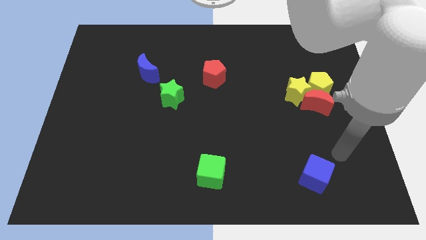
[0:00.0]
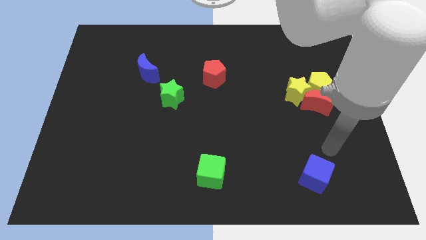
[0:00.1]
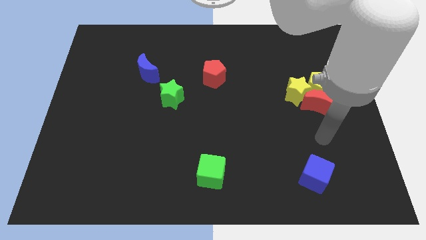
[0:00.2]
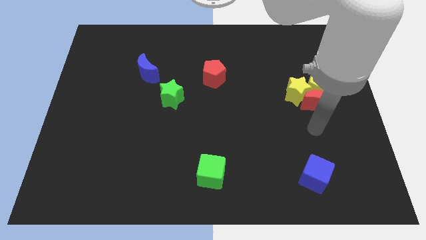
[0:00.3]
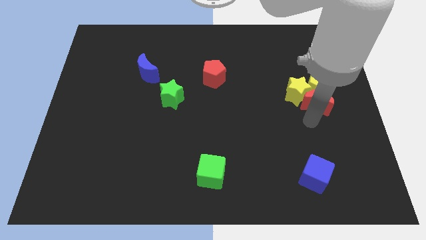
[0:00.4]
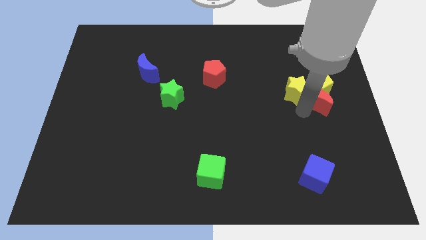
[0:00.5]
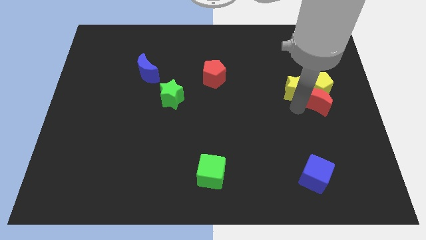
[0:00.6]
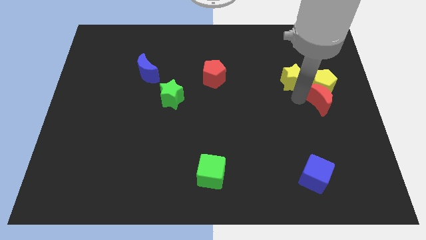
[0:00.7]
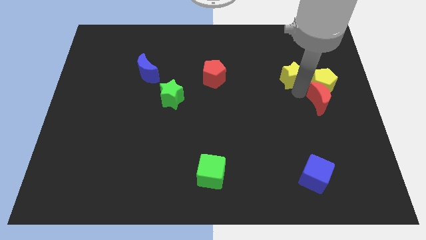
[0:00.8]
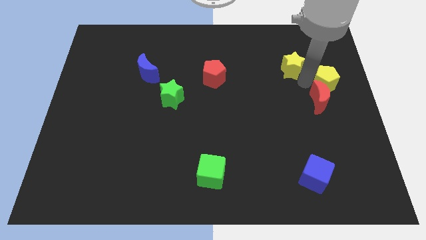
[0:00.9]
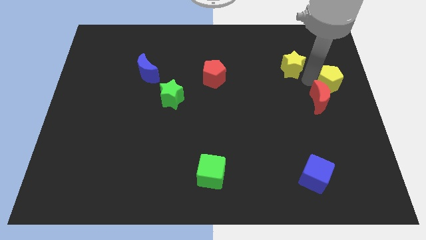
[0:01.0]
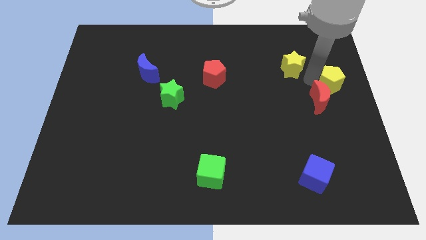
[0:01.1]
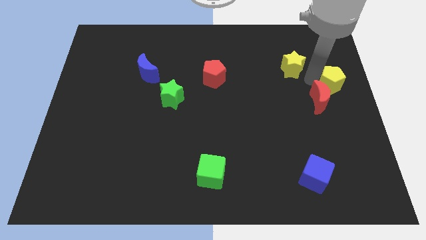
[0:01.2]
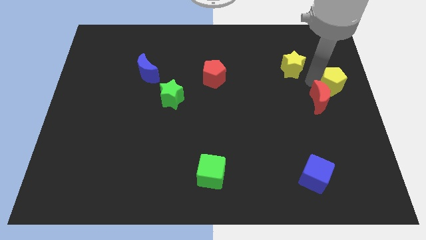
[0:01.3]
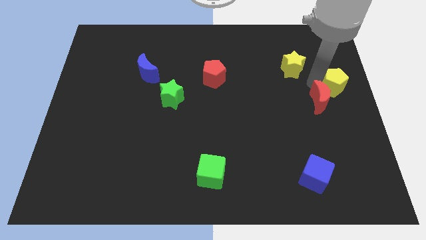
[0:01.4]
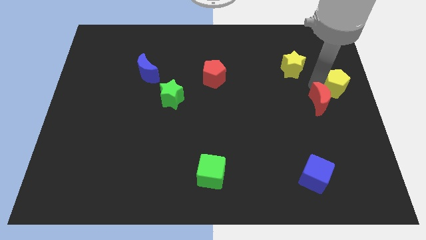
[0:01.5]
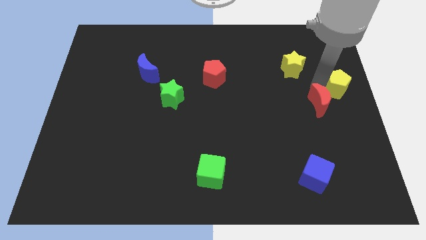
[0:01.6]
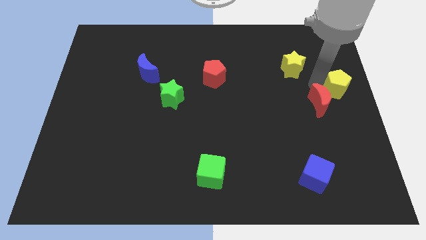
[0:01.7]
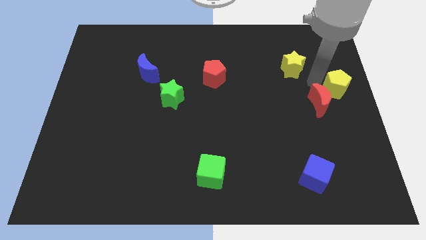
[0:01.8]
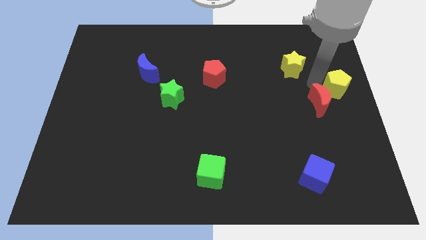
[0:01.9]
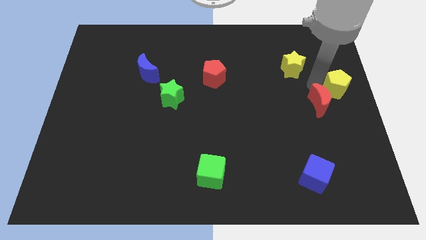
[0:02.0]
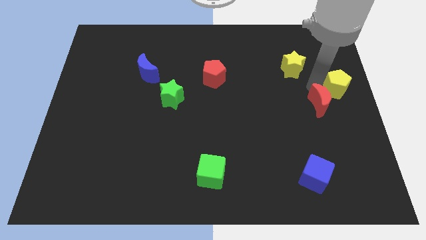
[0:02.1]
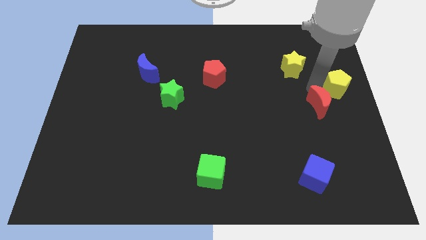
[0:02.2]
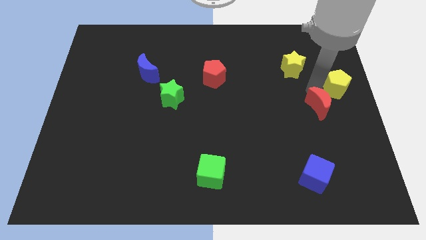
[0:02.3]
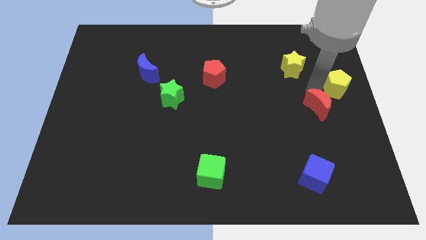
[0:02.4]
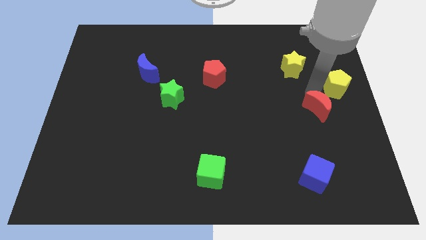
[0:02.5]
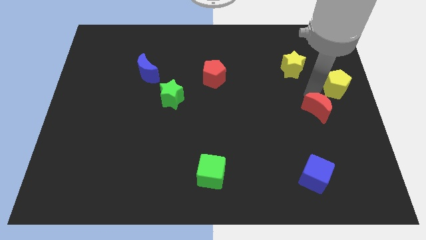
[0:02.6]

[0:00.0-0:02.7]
separate the red moon from the yellow pentagon and yellow star

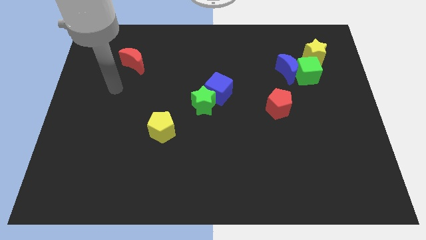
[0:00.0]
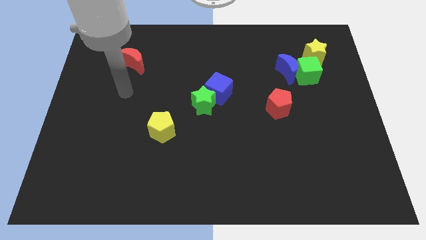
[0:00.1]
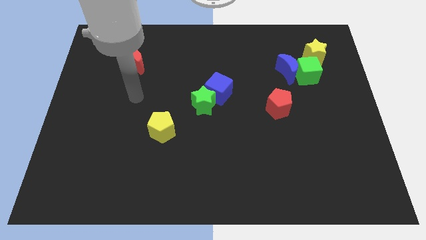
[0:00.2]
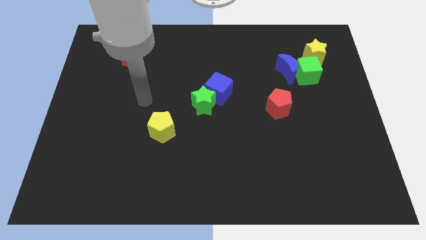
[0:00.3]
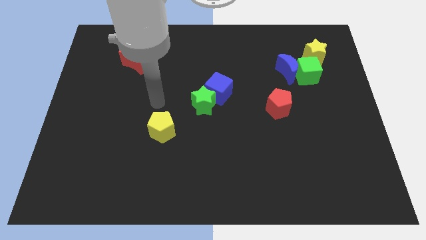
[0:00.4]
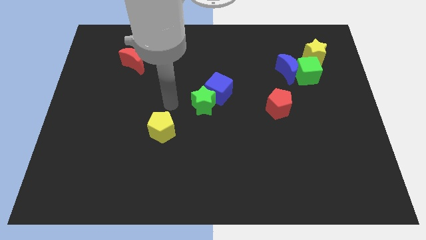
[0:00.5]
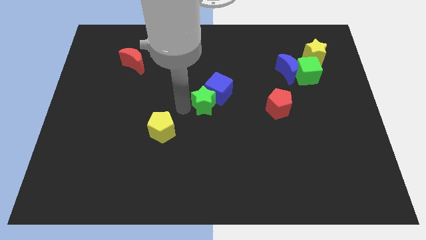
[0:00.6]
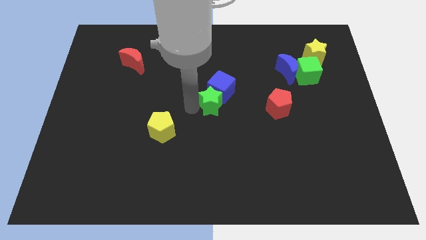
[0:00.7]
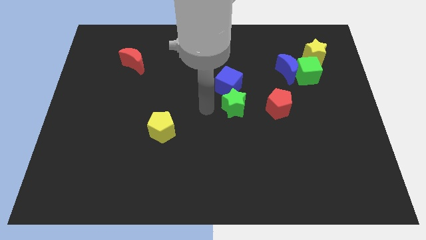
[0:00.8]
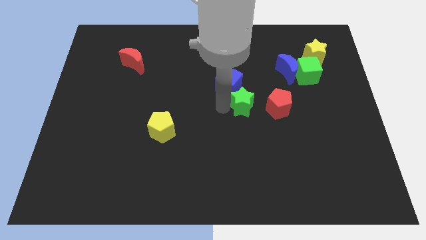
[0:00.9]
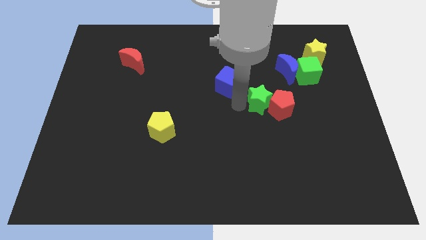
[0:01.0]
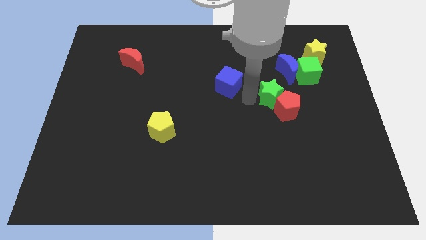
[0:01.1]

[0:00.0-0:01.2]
pull the blue cube apart from the green star

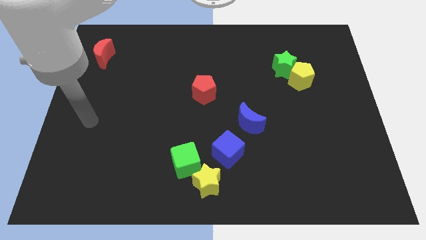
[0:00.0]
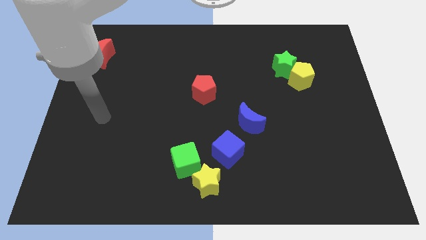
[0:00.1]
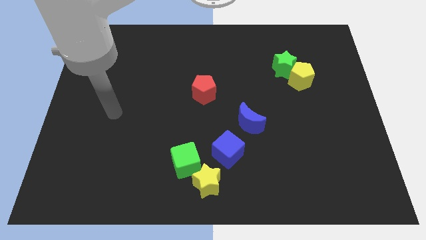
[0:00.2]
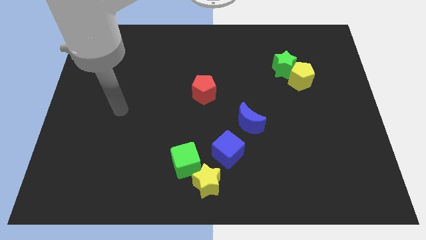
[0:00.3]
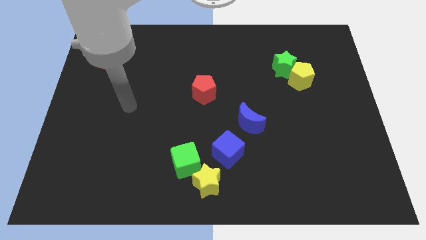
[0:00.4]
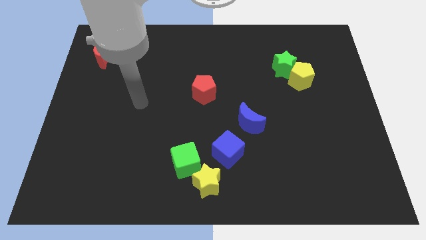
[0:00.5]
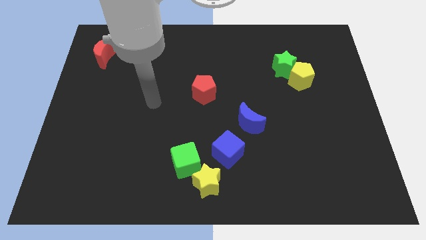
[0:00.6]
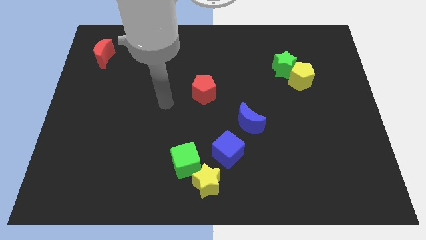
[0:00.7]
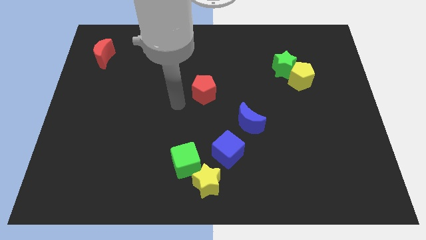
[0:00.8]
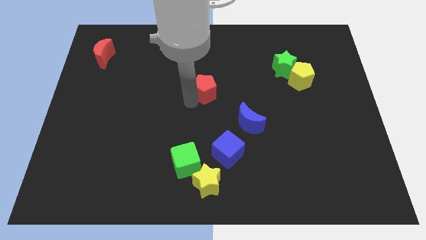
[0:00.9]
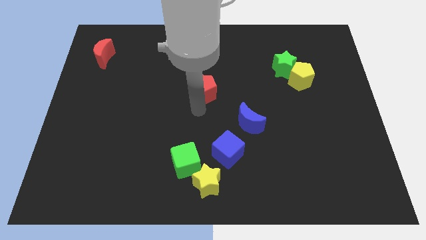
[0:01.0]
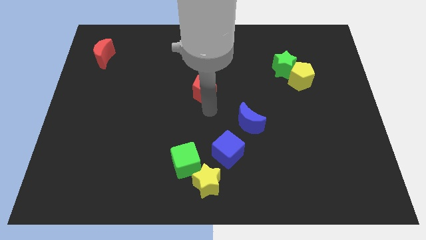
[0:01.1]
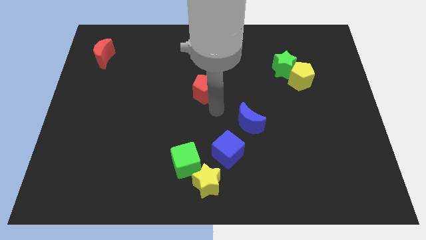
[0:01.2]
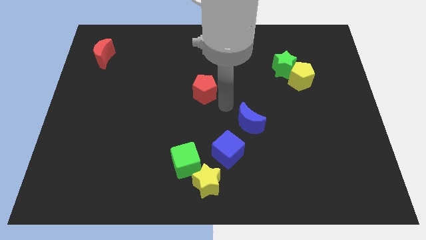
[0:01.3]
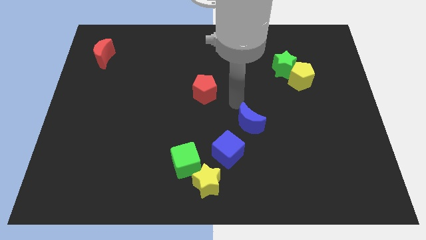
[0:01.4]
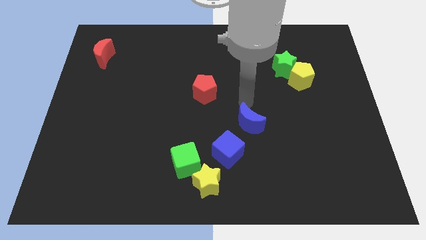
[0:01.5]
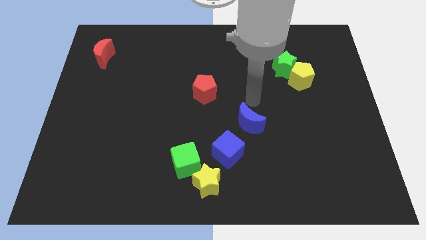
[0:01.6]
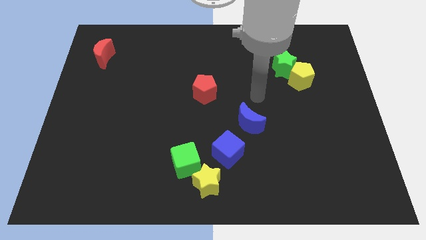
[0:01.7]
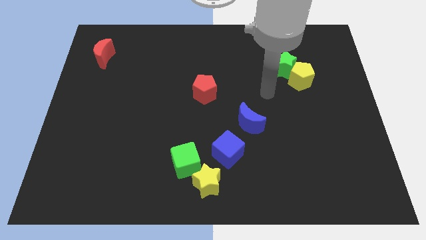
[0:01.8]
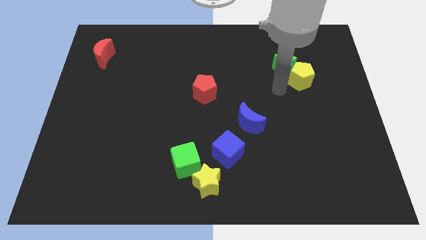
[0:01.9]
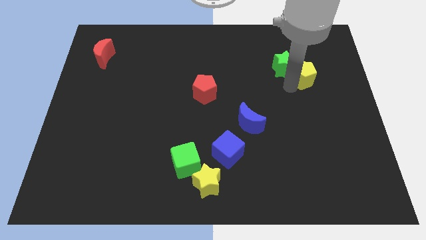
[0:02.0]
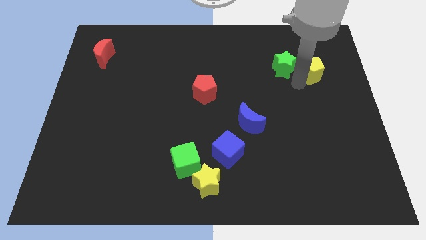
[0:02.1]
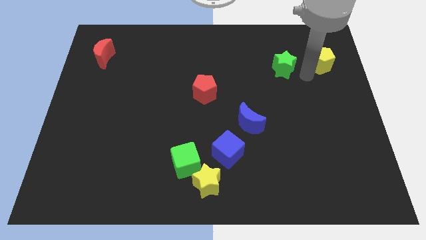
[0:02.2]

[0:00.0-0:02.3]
pull the green star apart from the yellow pentagon

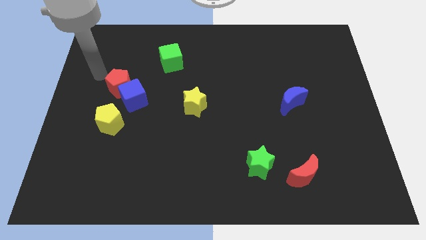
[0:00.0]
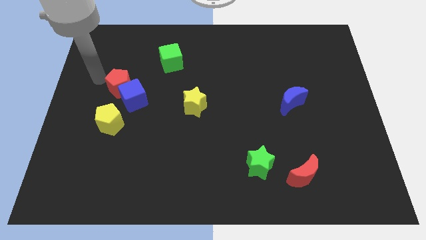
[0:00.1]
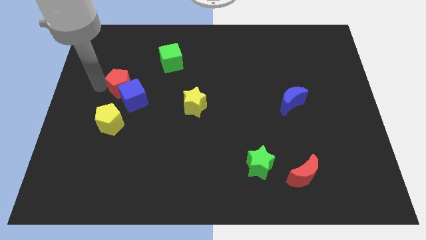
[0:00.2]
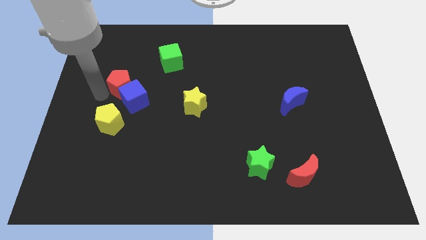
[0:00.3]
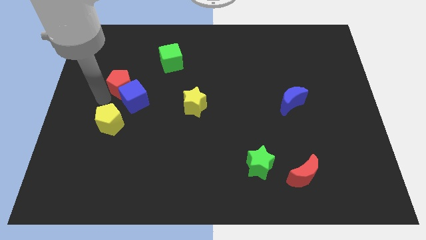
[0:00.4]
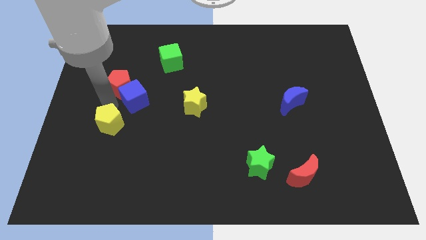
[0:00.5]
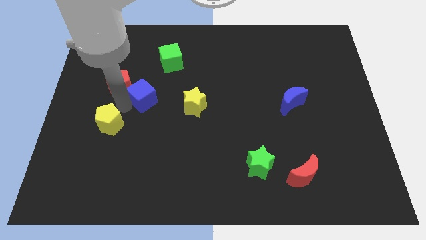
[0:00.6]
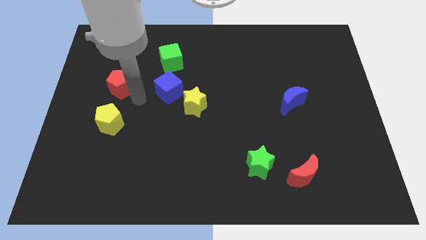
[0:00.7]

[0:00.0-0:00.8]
move the red pentagon away from the blue cube

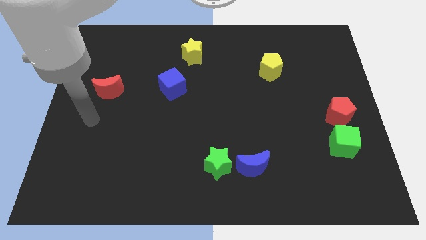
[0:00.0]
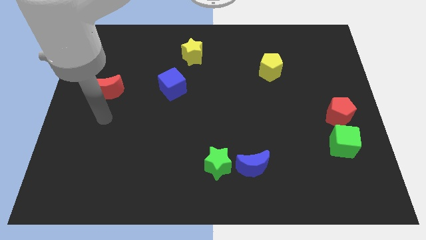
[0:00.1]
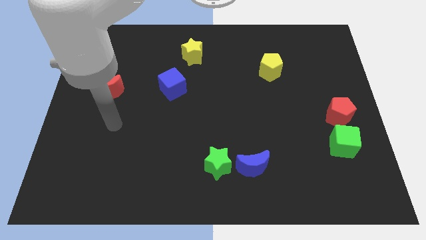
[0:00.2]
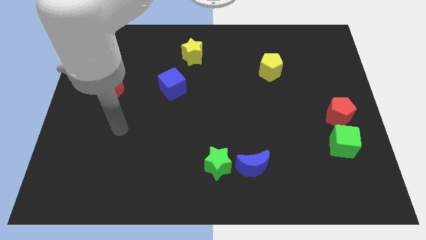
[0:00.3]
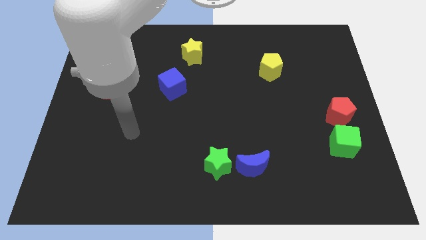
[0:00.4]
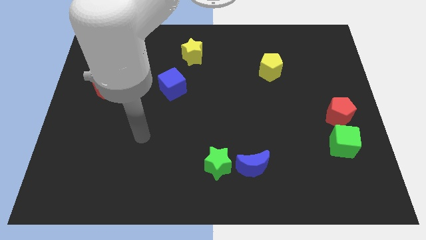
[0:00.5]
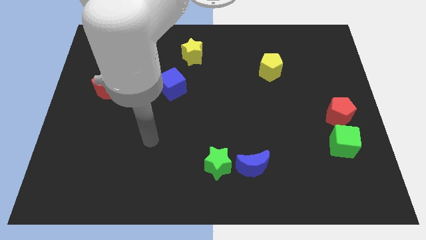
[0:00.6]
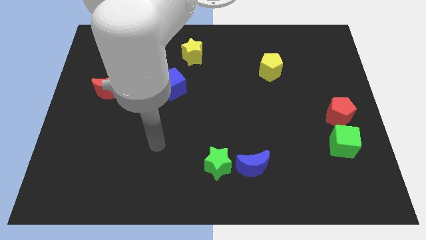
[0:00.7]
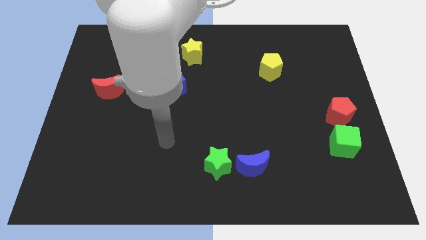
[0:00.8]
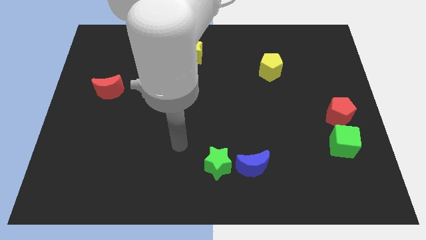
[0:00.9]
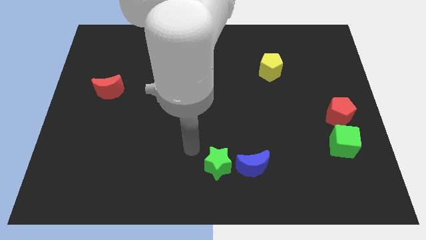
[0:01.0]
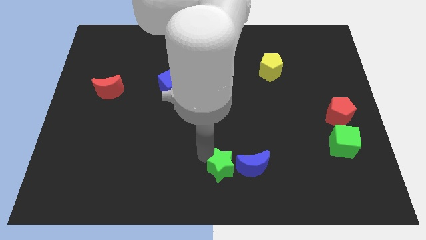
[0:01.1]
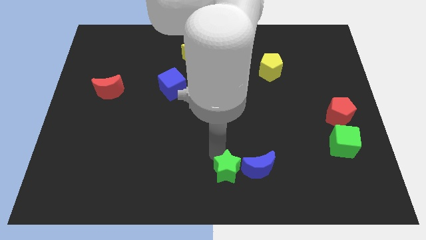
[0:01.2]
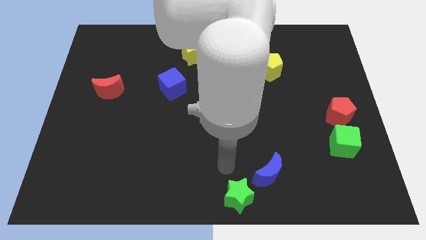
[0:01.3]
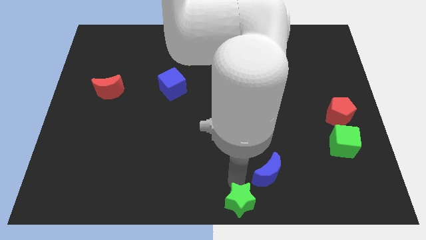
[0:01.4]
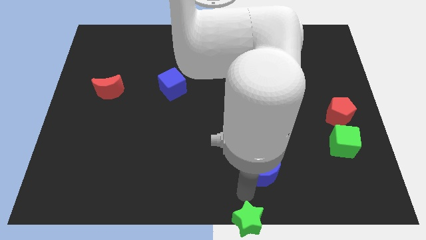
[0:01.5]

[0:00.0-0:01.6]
move the blue moon away from the green star

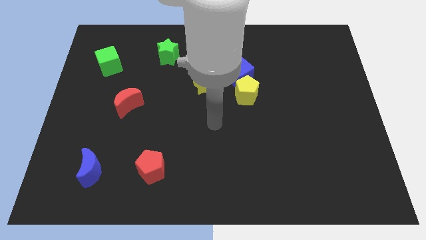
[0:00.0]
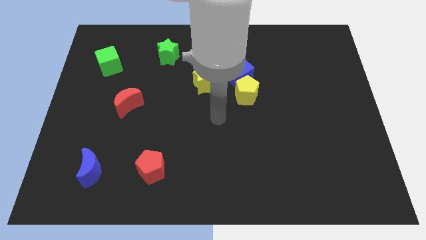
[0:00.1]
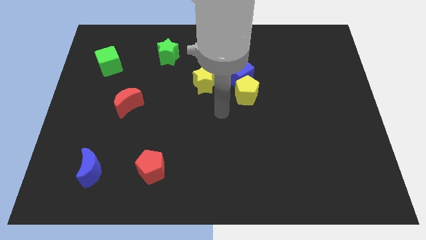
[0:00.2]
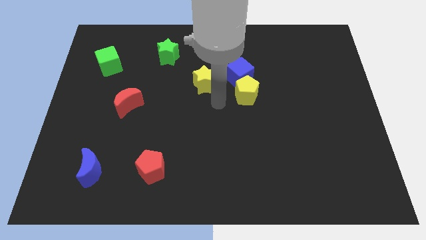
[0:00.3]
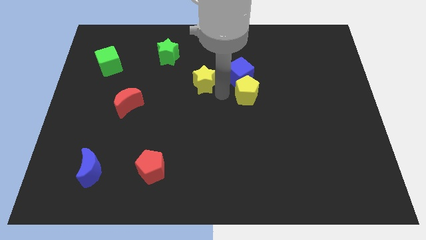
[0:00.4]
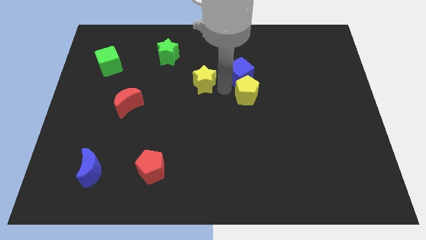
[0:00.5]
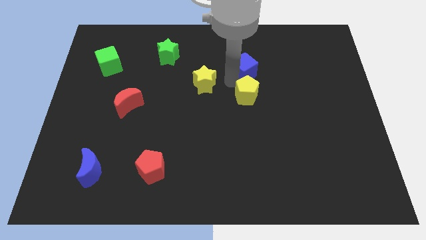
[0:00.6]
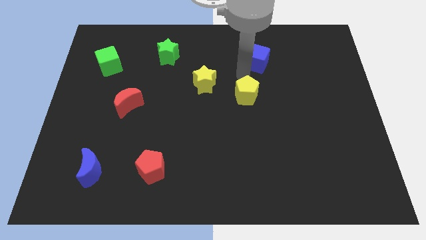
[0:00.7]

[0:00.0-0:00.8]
separate the yellow pentagon from the blue cube

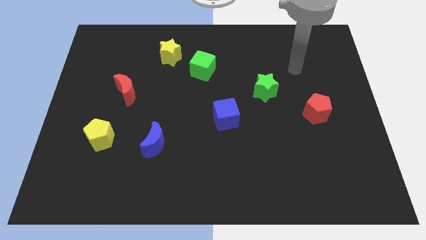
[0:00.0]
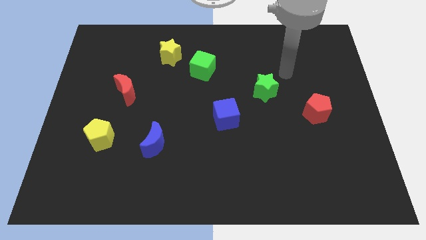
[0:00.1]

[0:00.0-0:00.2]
pull the green cube apart from the yellow star
